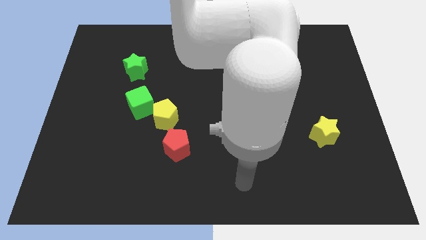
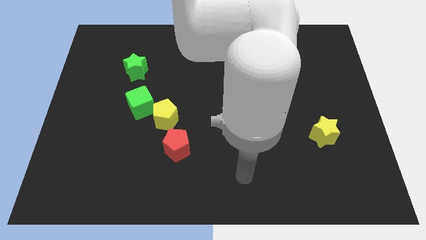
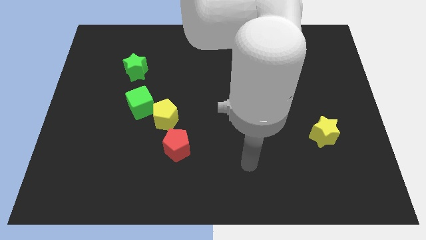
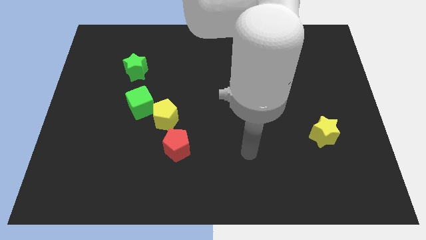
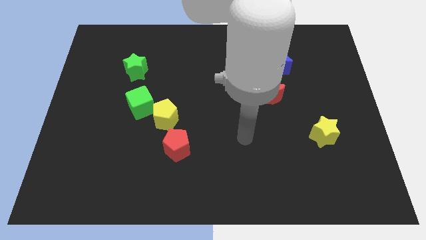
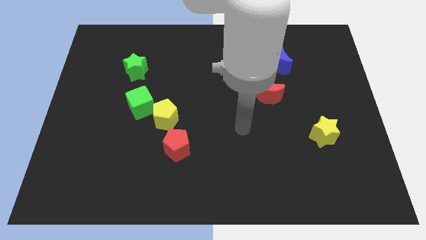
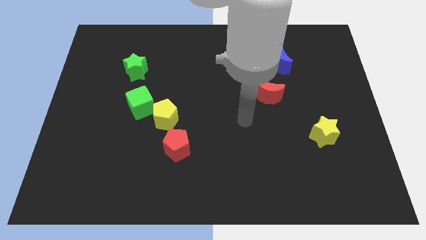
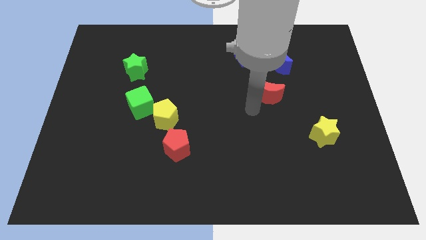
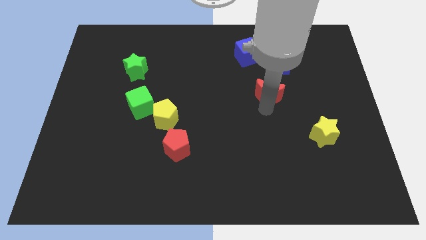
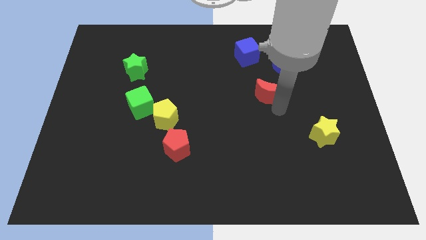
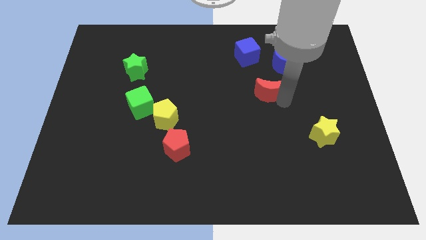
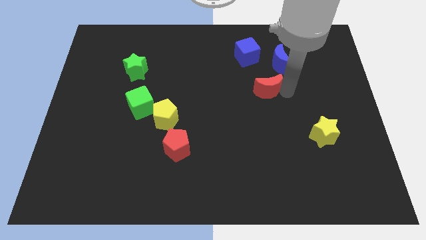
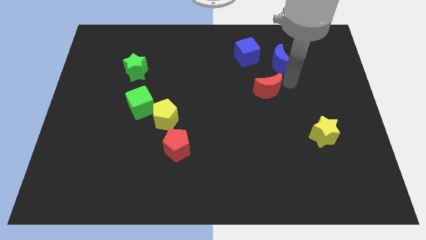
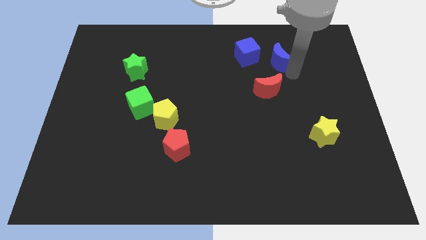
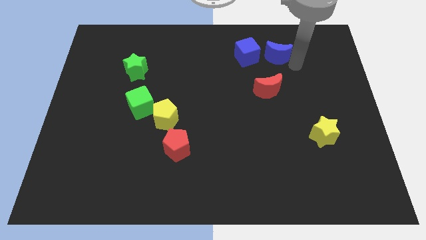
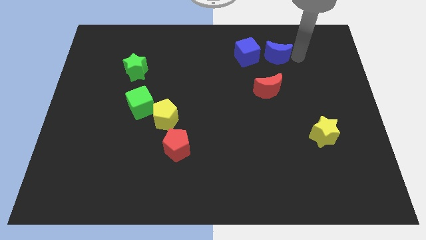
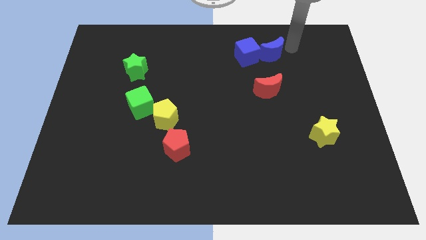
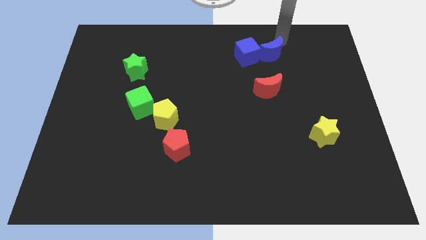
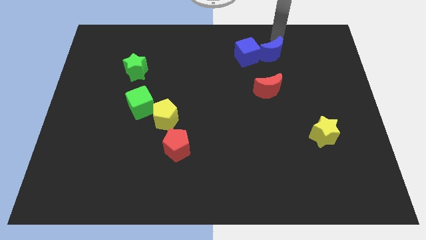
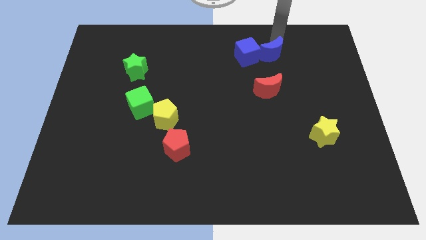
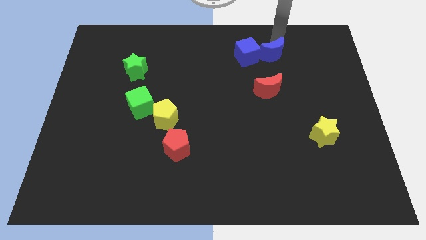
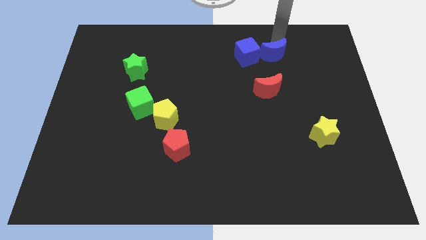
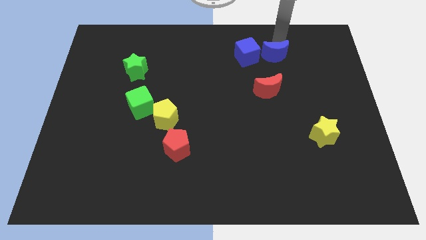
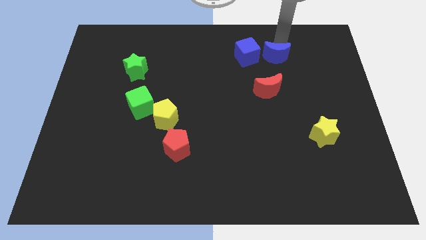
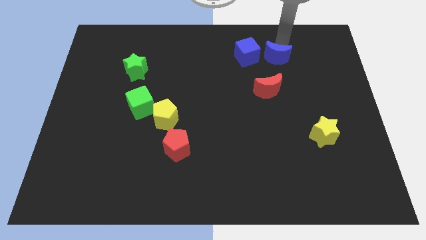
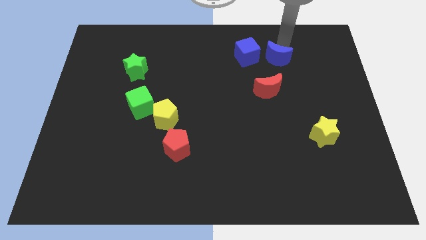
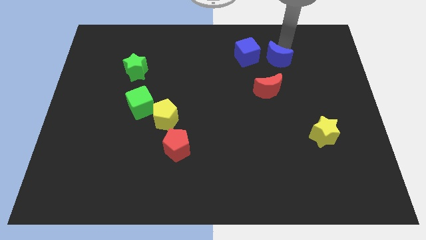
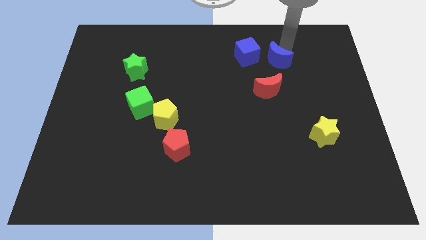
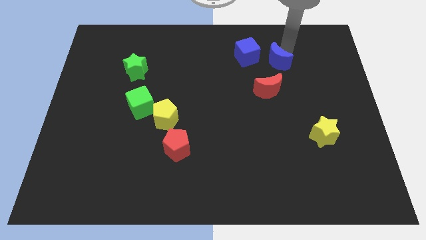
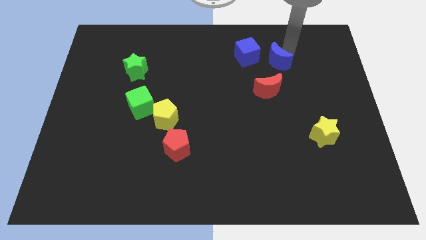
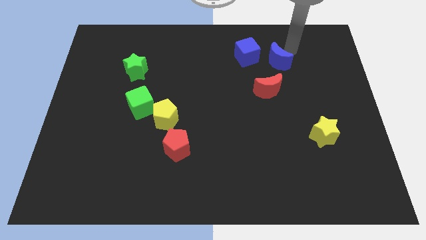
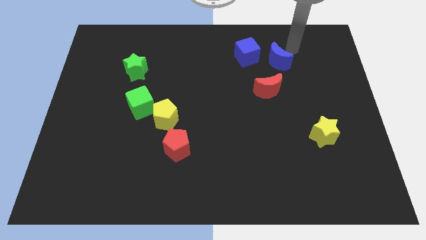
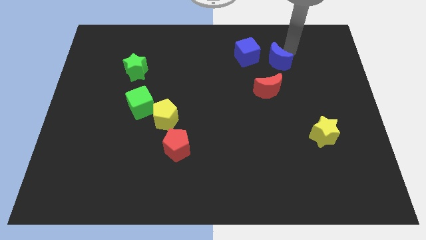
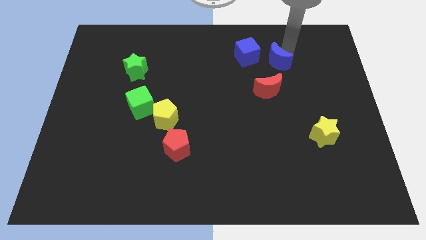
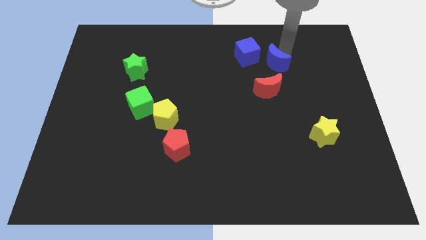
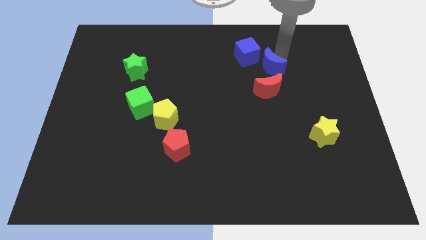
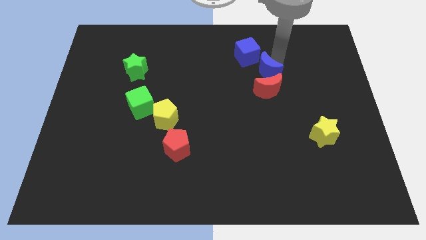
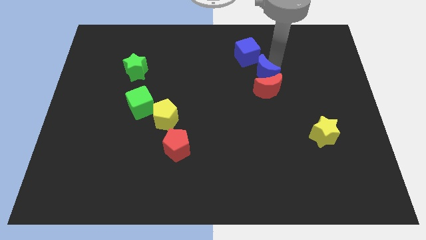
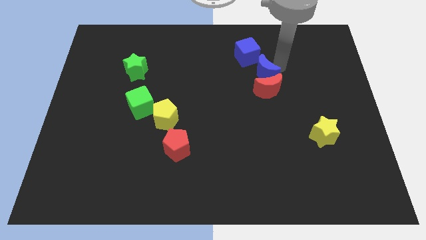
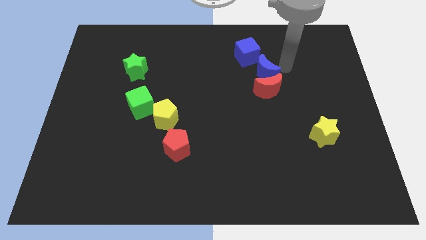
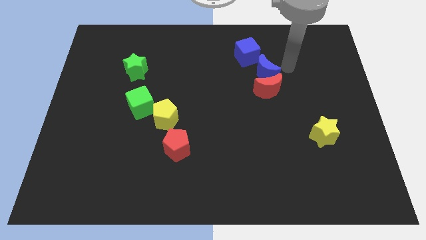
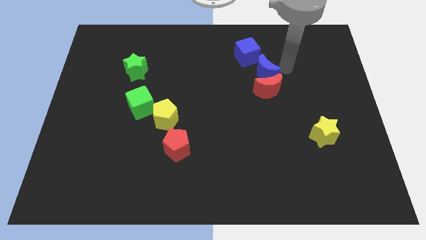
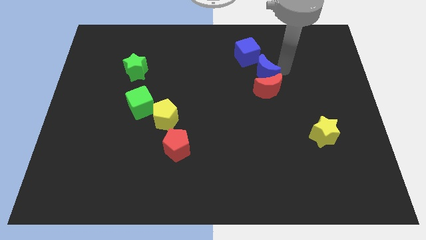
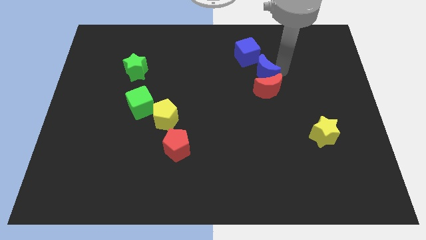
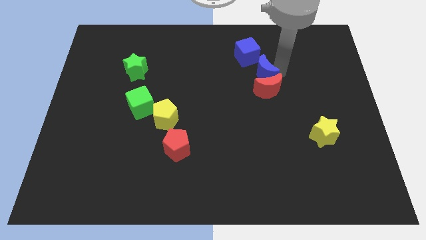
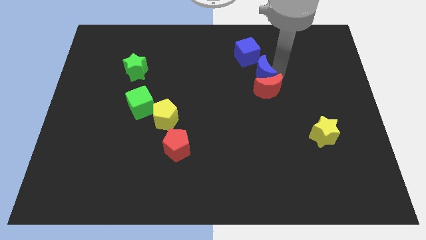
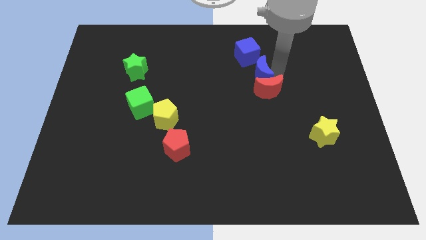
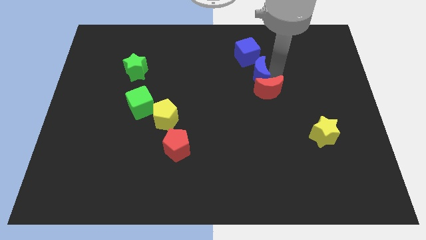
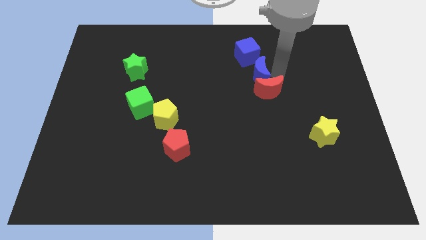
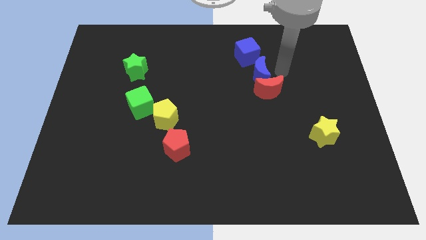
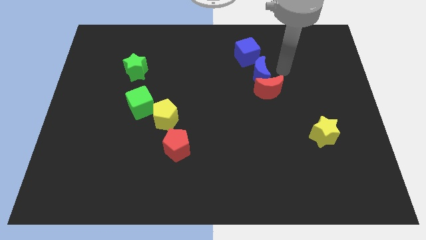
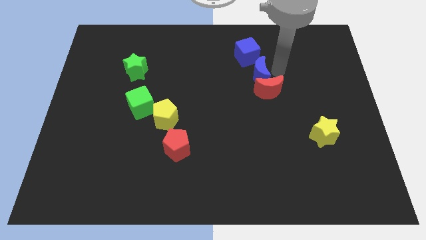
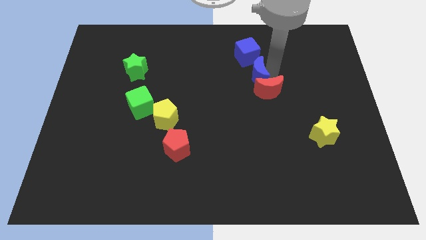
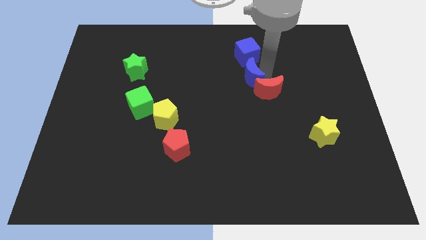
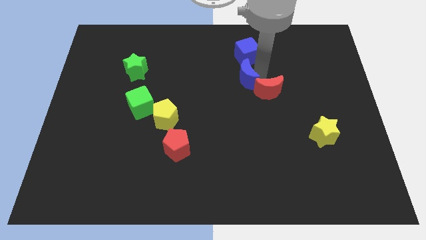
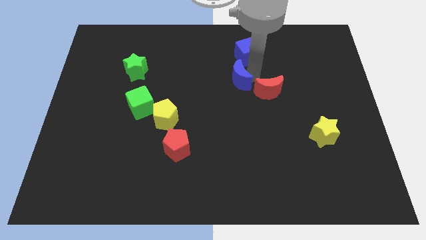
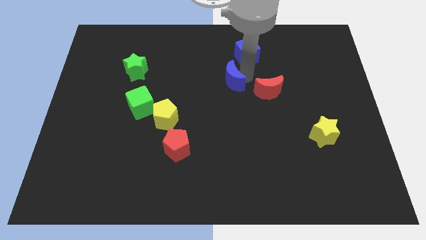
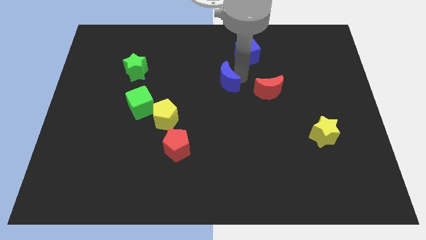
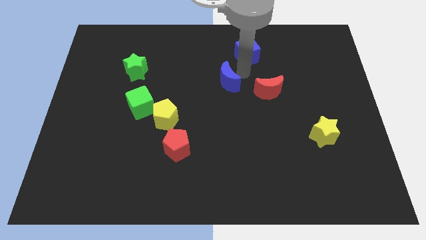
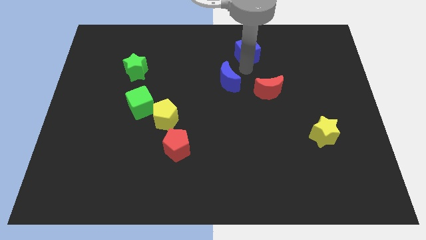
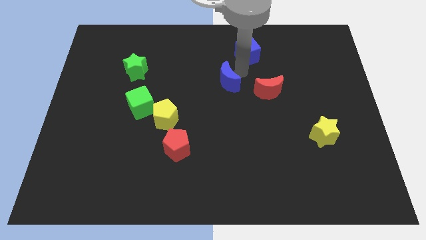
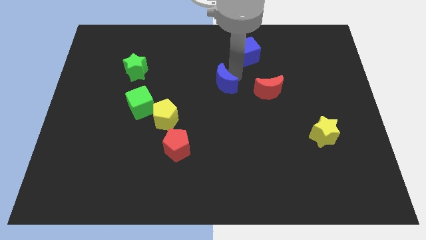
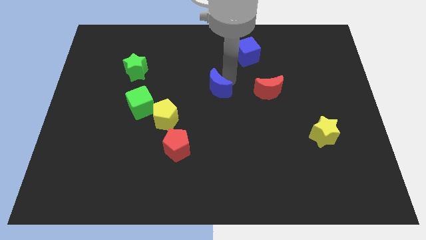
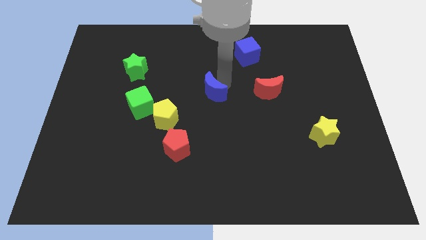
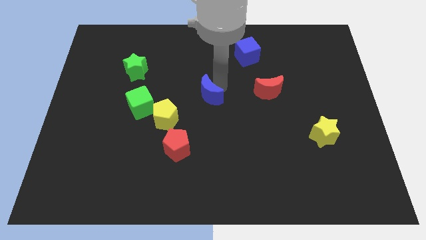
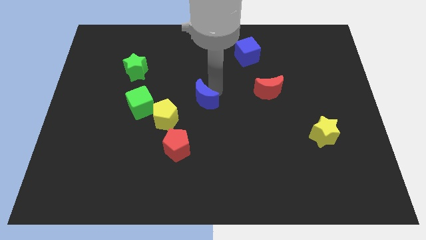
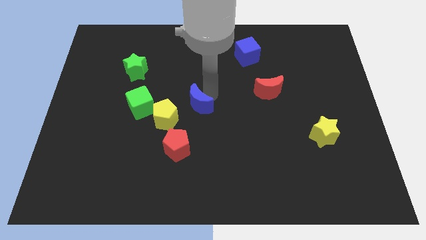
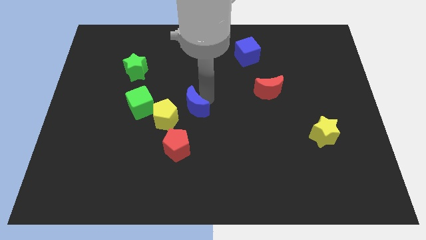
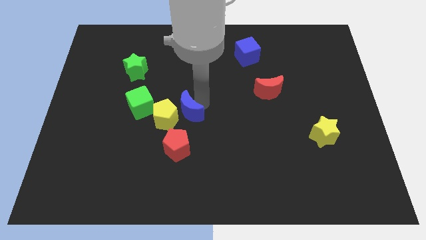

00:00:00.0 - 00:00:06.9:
slide the blue moon next to the yellow pentagon

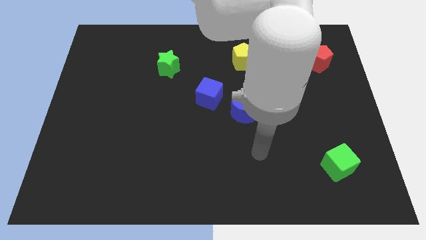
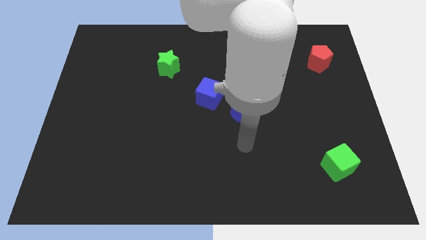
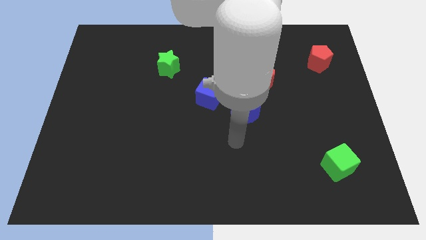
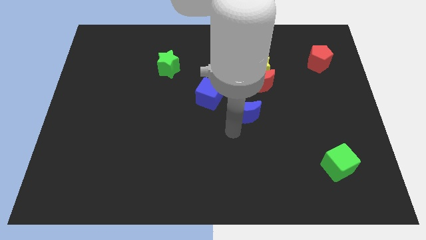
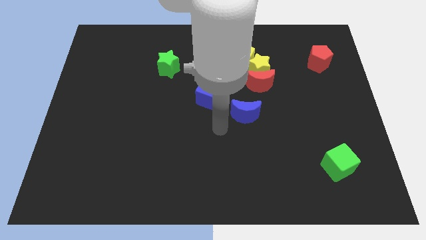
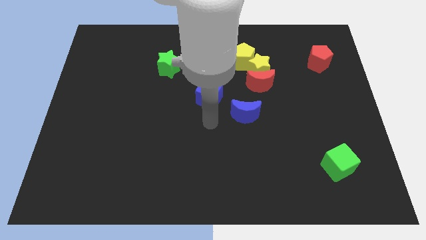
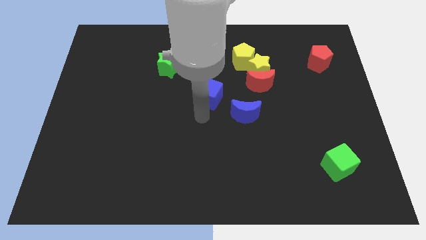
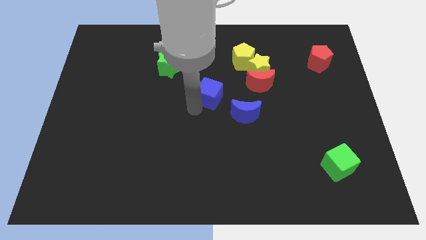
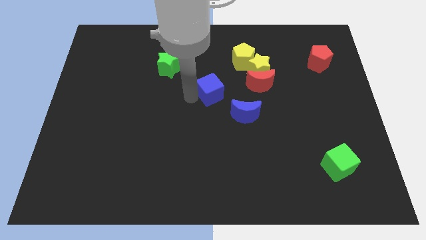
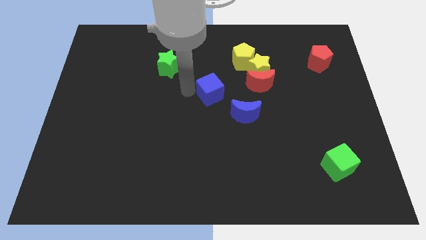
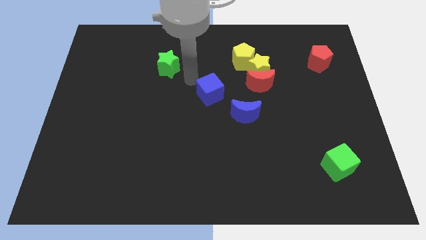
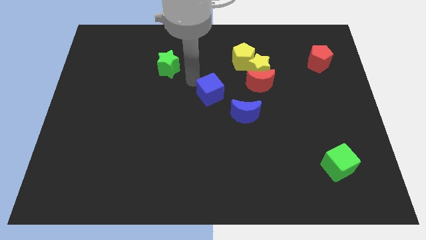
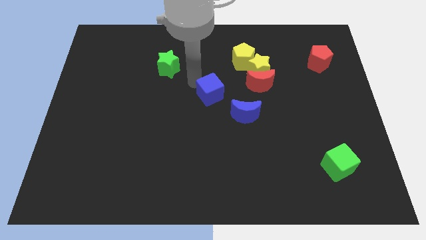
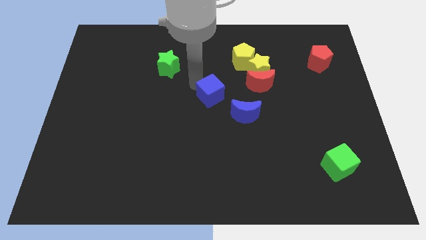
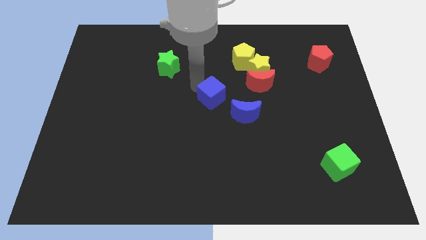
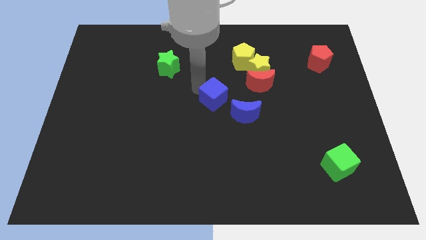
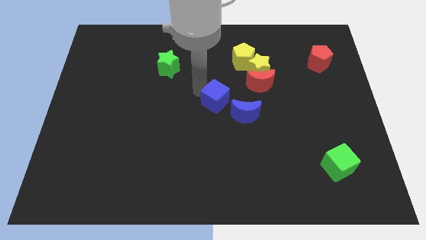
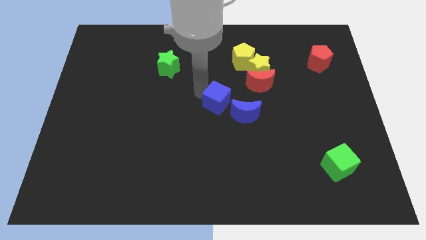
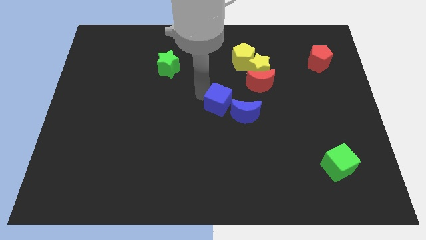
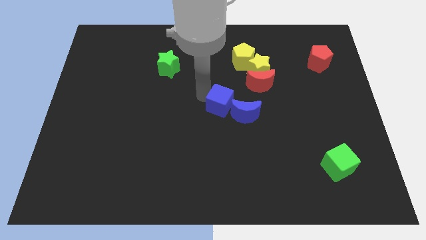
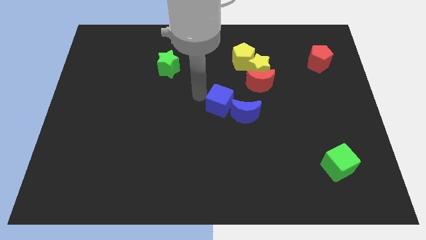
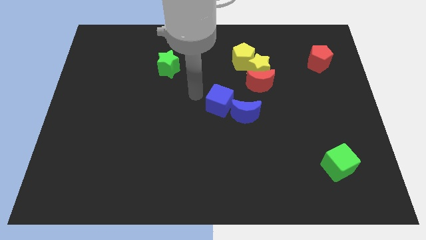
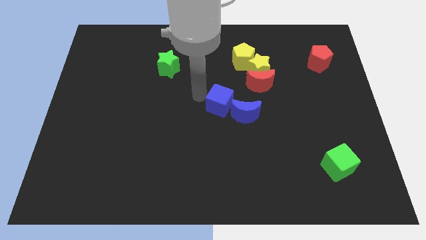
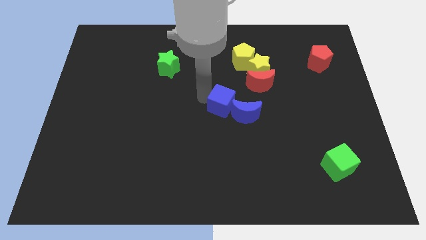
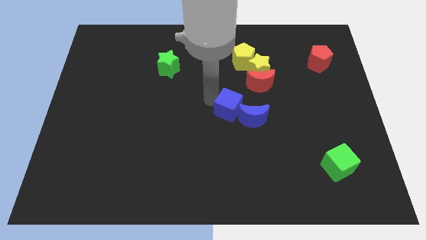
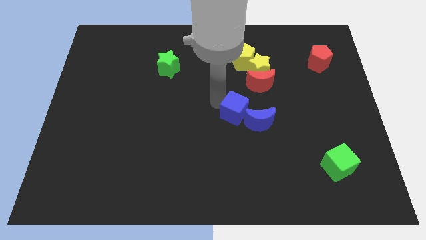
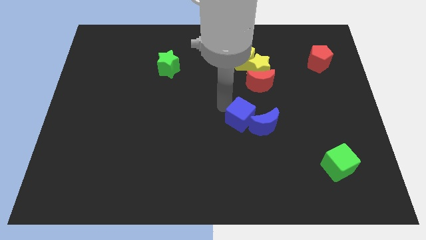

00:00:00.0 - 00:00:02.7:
push the blue cube towards the blue moon
